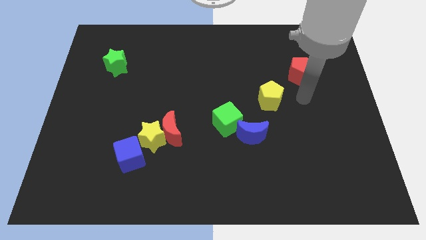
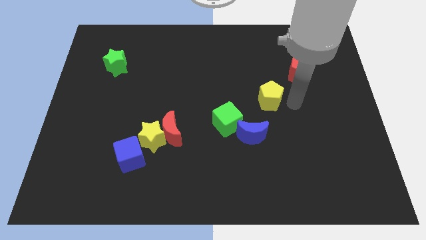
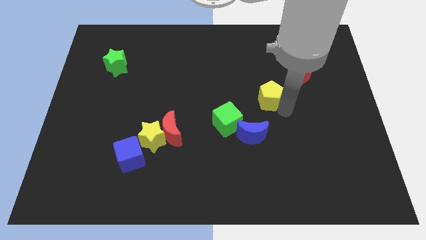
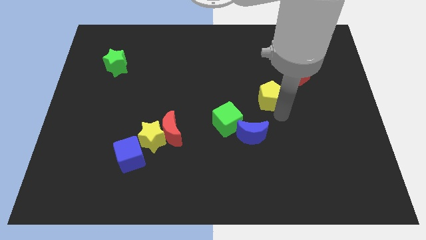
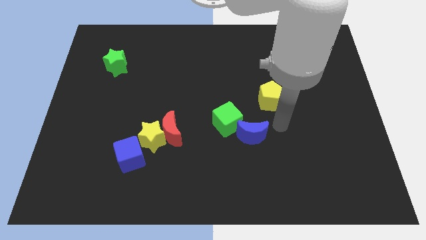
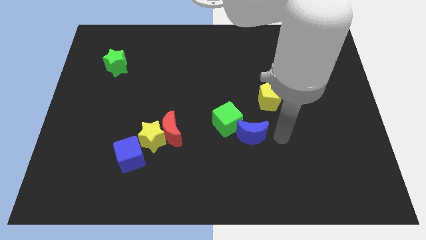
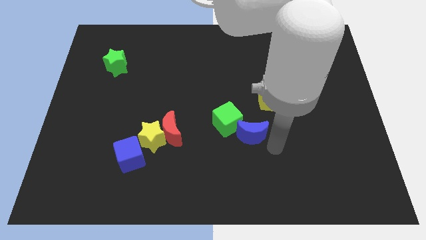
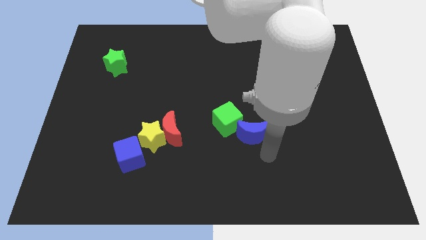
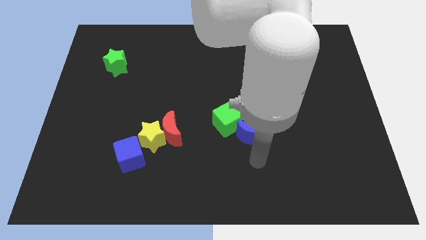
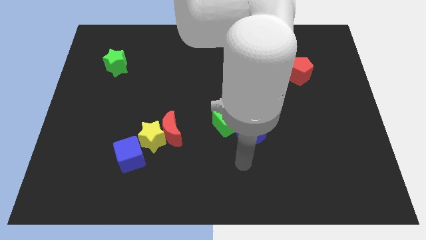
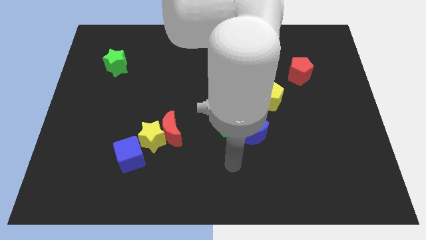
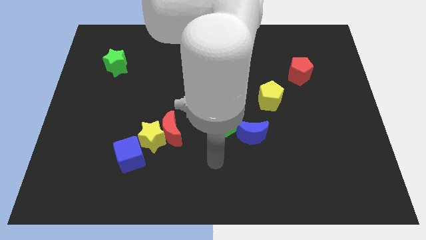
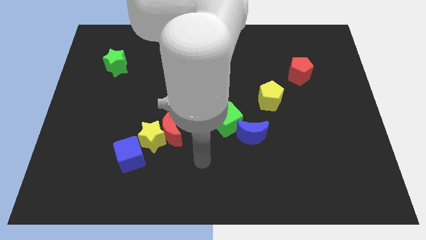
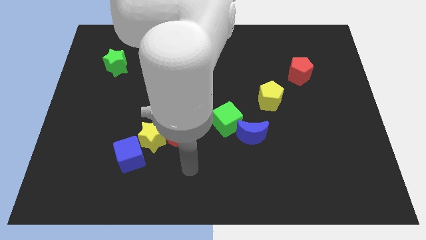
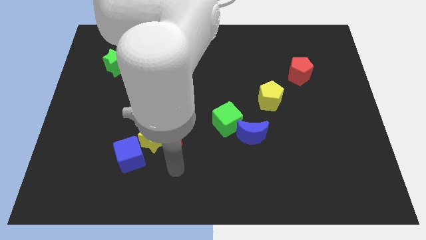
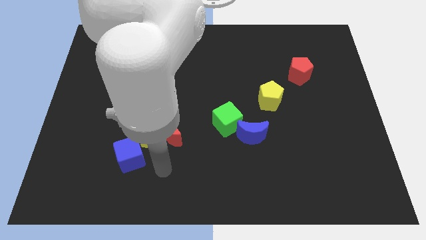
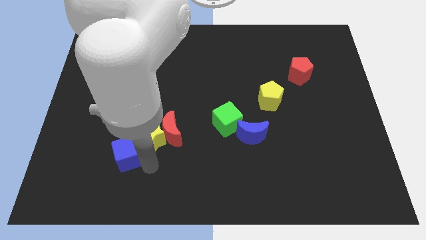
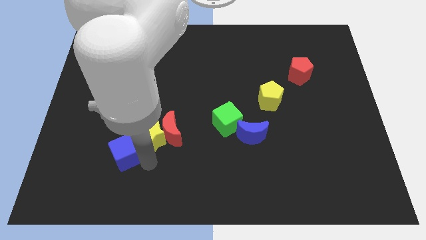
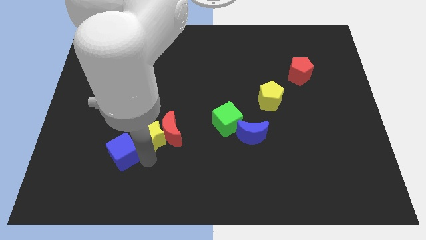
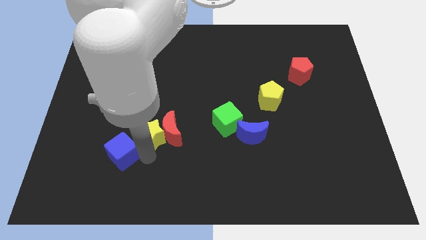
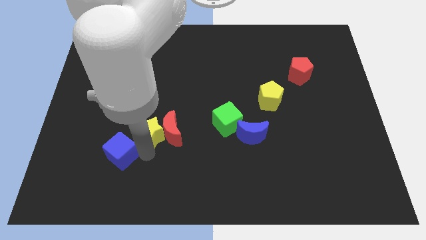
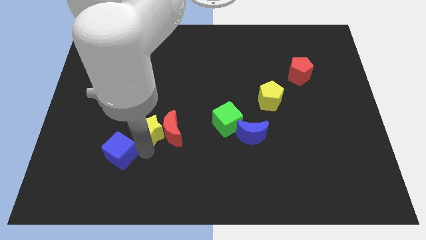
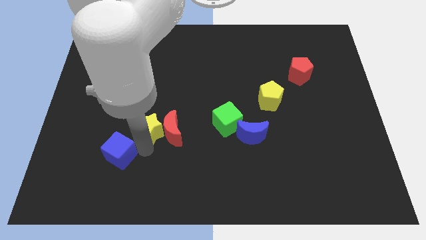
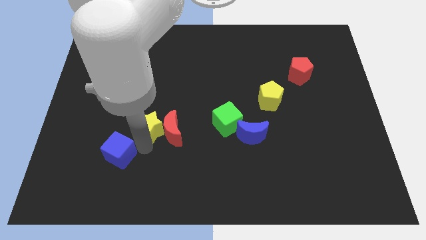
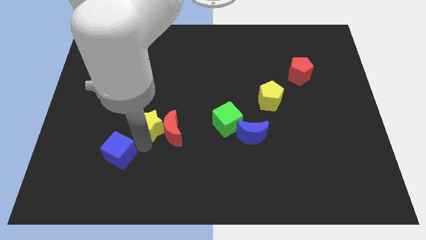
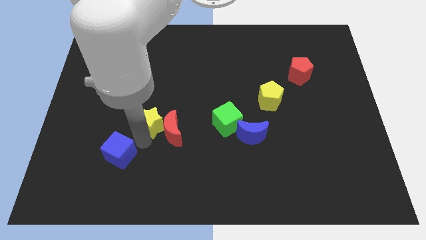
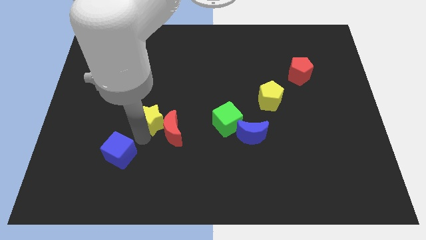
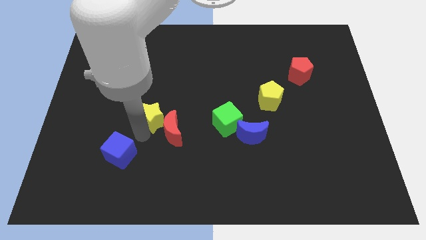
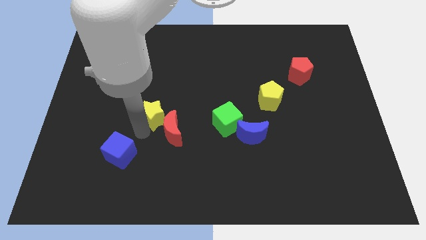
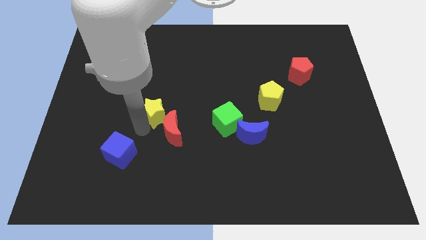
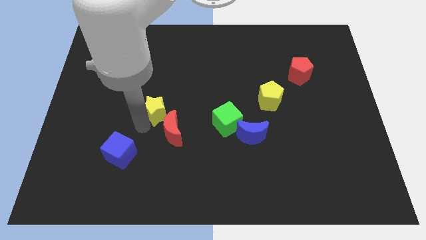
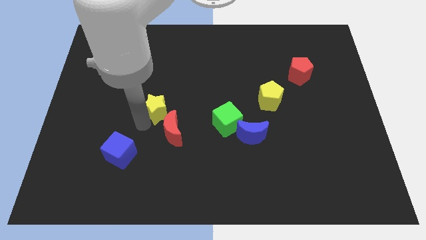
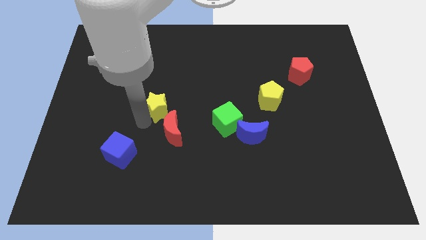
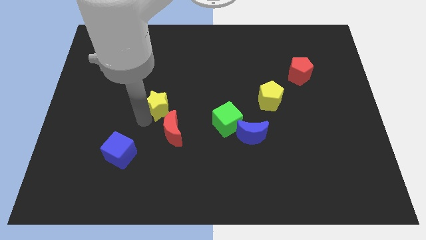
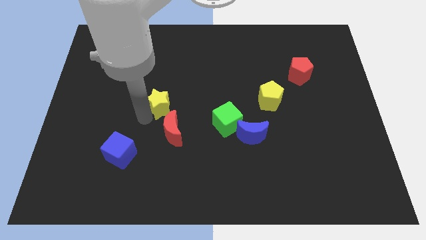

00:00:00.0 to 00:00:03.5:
separate the yellow star from the red moon and blue cube

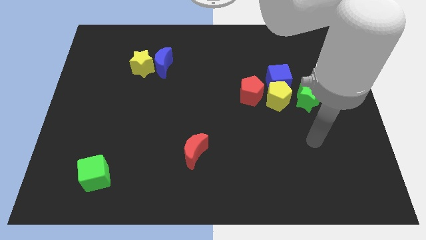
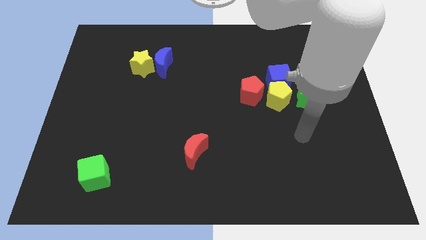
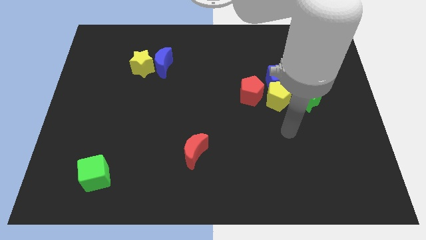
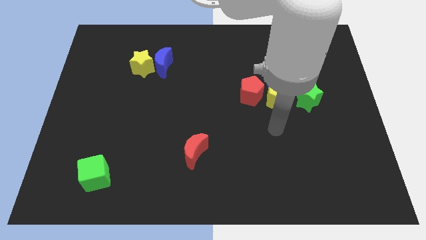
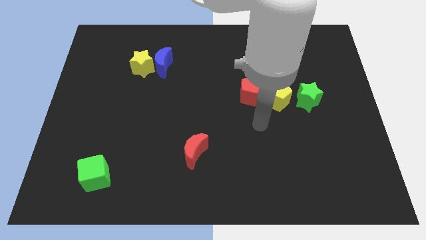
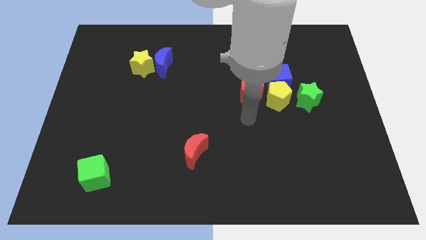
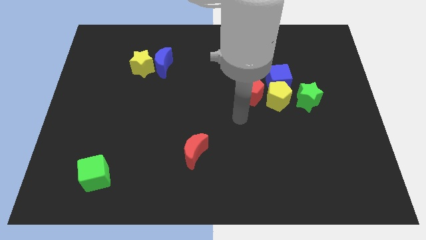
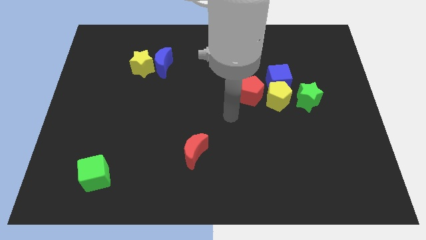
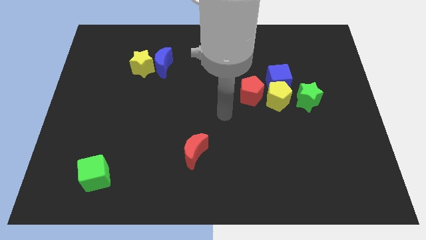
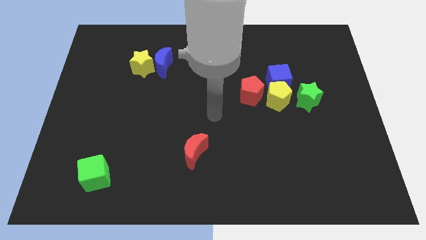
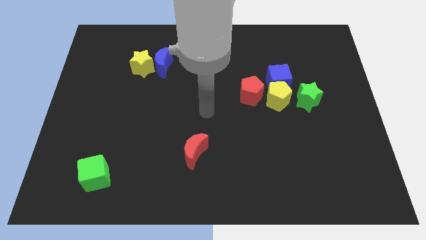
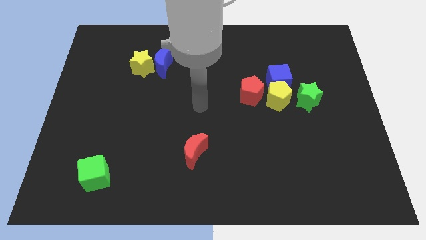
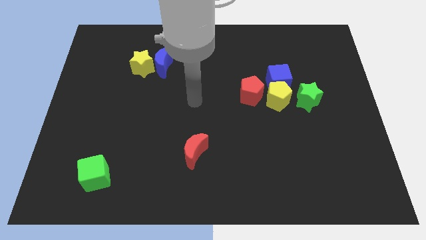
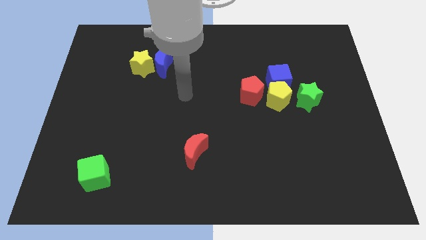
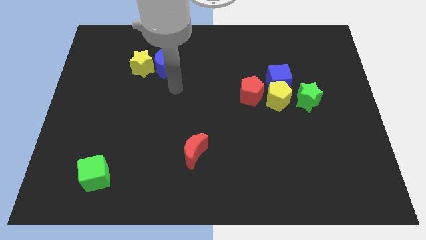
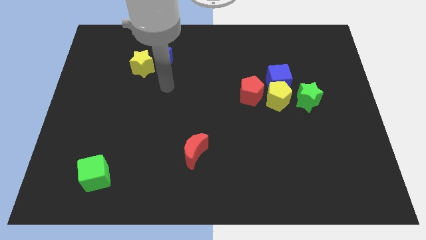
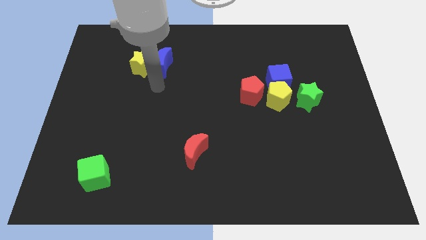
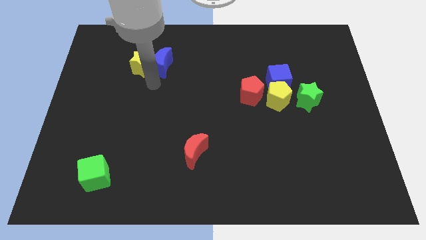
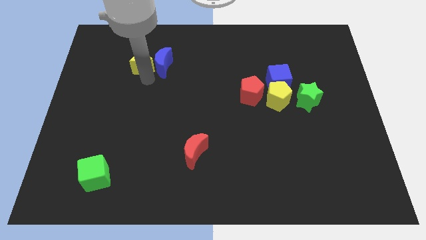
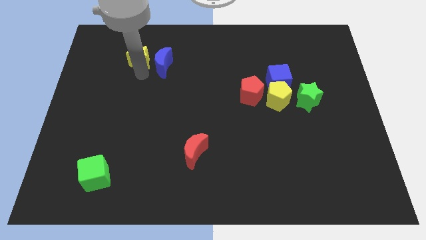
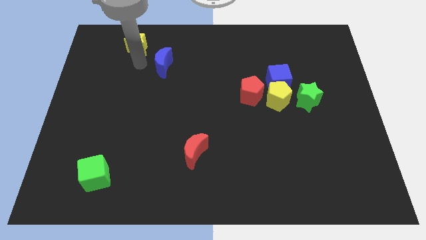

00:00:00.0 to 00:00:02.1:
pull the blue moon apart from the yellow star

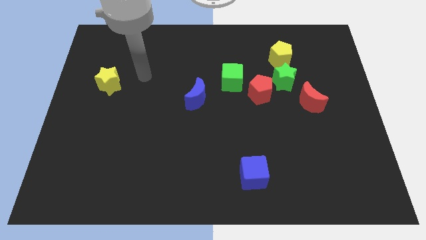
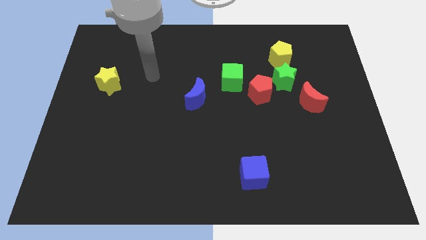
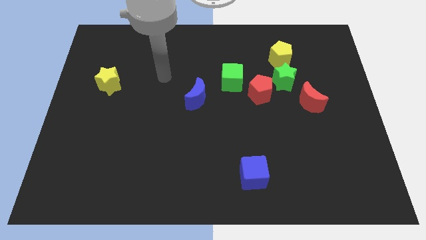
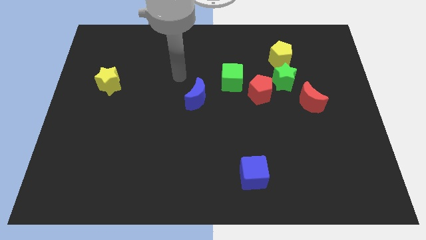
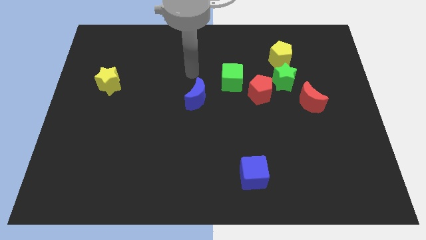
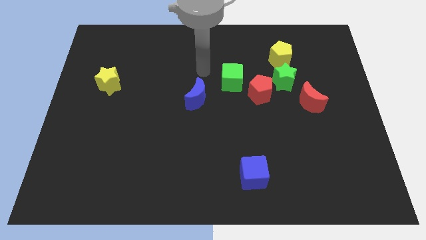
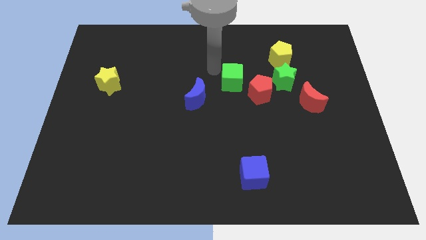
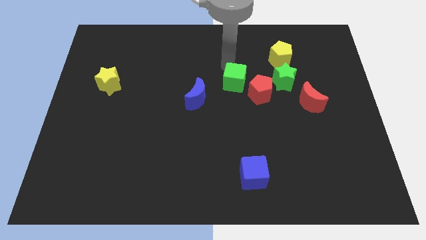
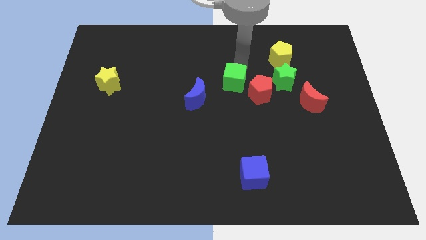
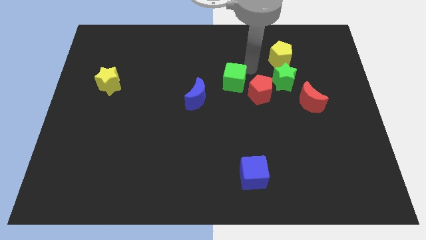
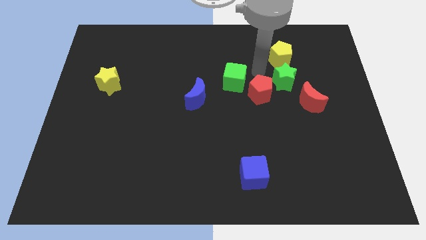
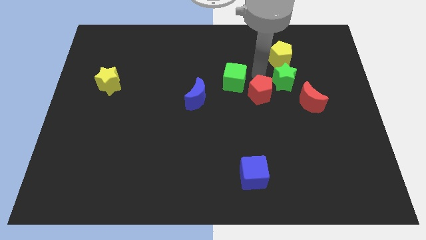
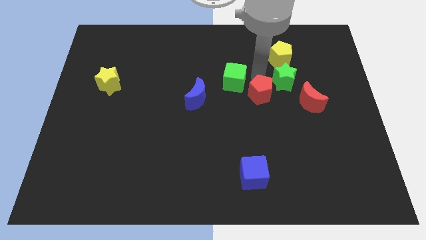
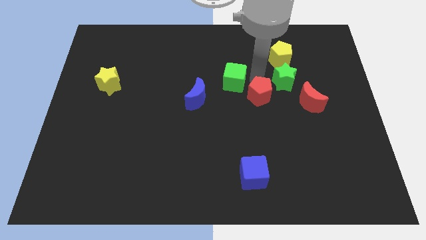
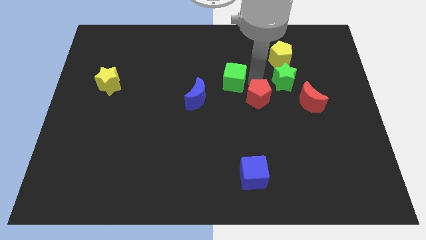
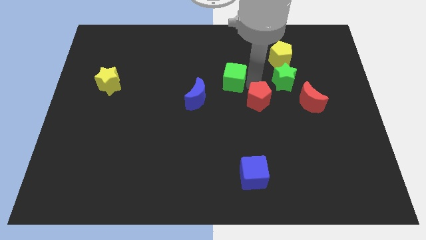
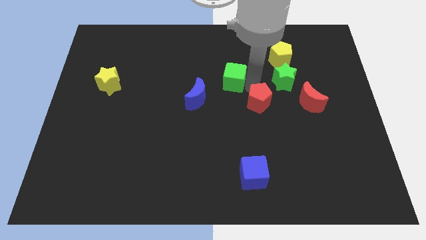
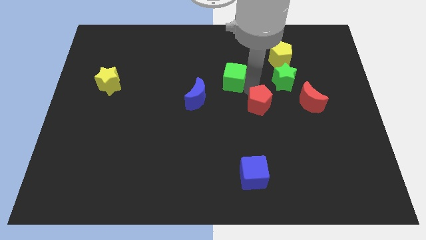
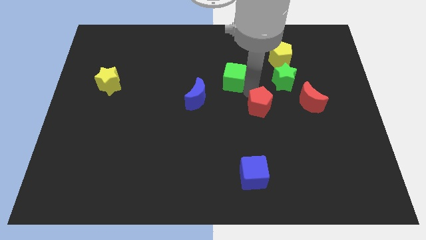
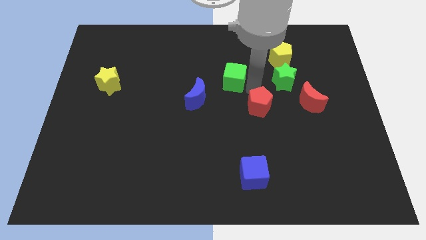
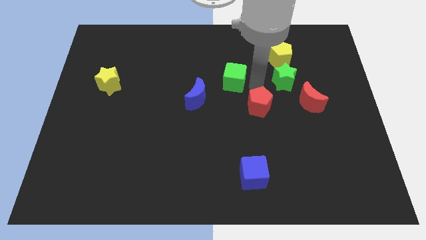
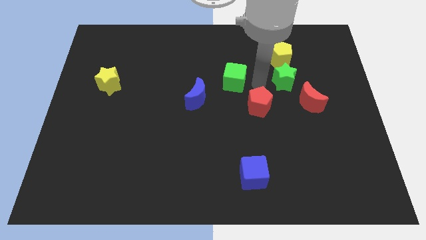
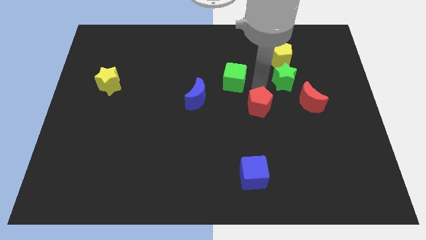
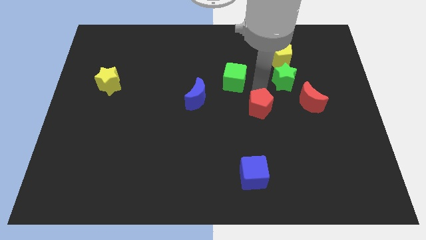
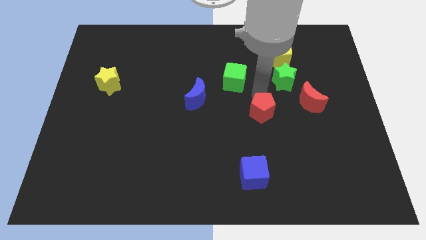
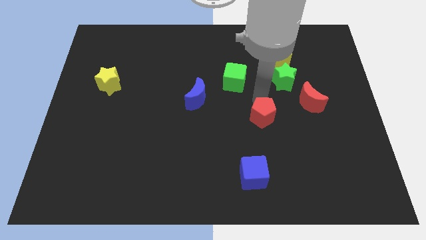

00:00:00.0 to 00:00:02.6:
move the red pentagon away from the green star and green cube

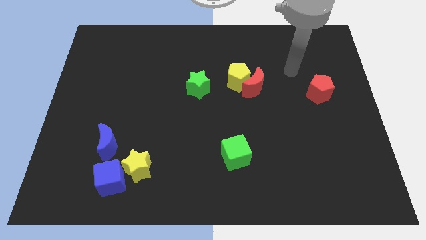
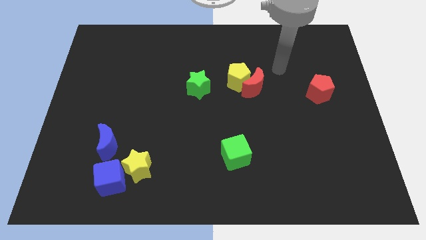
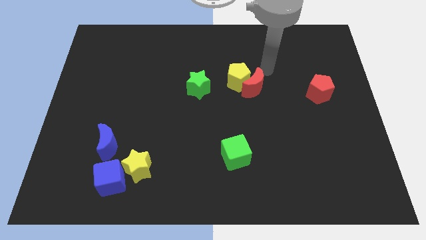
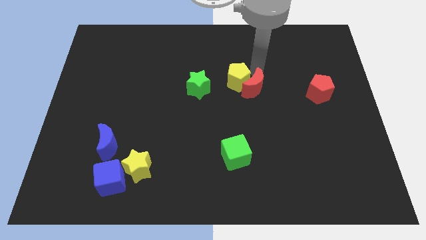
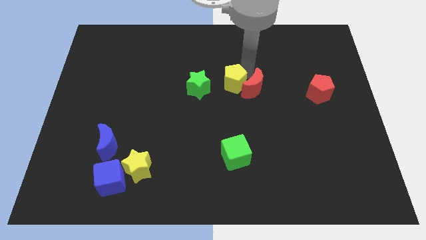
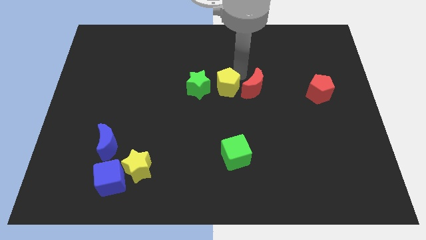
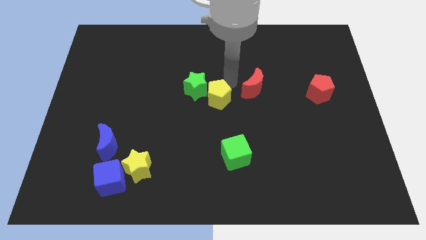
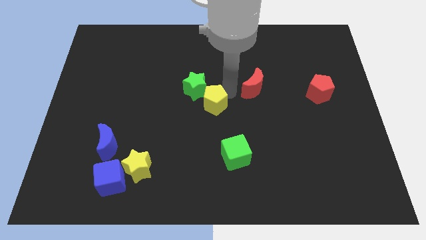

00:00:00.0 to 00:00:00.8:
pull the red moon apart from the yellow pentagon

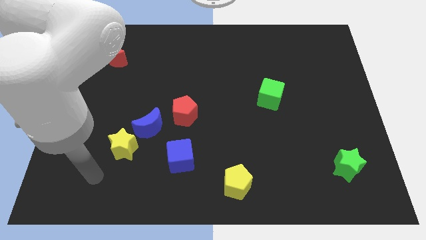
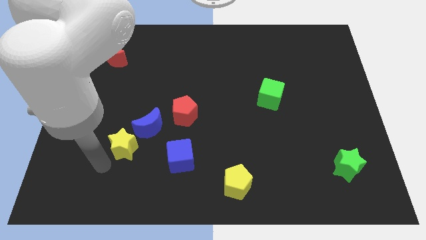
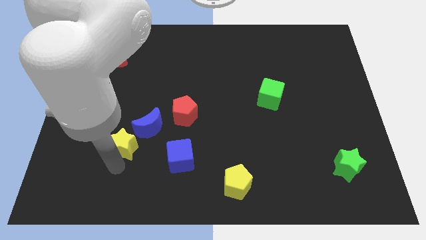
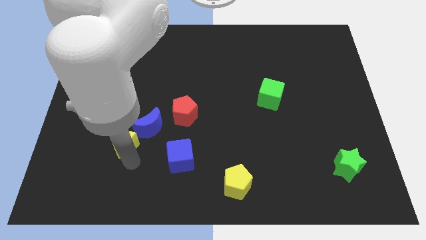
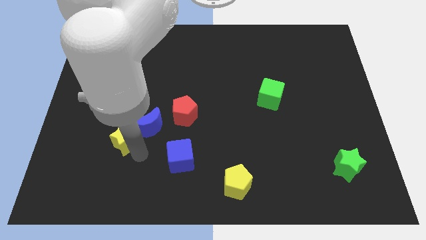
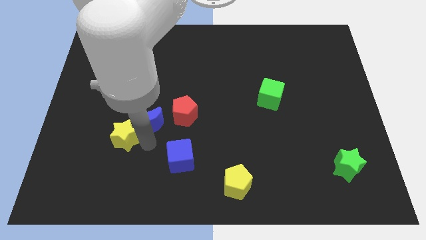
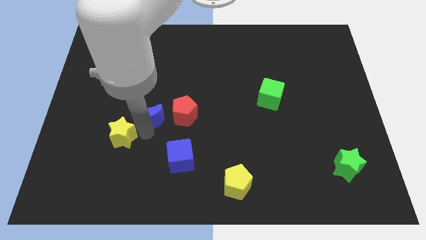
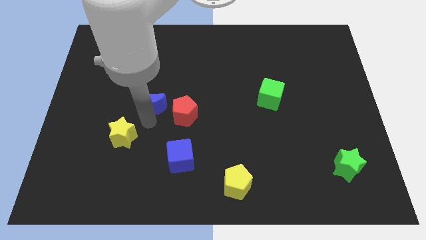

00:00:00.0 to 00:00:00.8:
move the yellow star away from the blue moon
